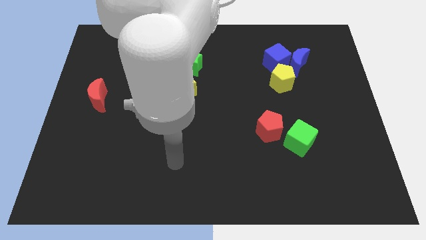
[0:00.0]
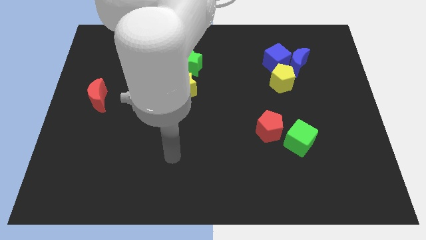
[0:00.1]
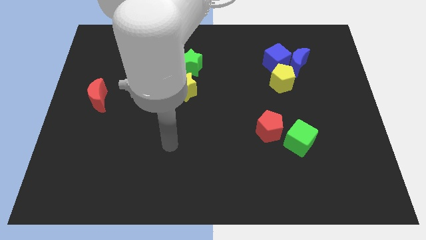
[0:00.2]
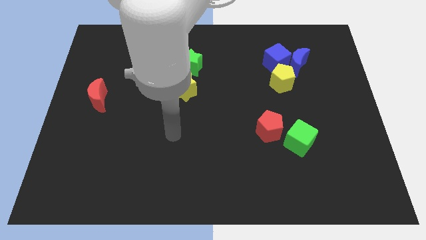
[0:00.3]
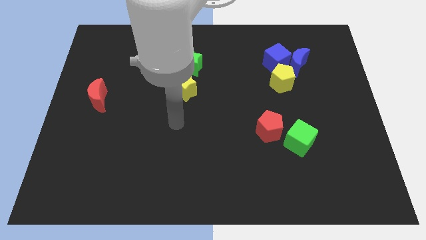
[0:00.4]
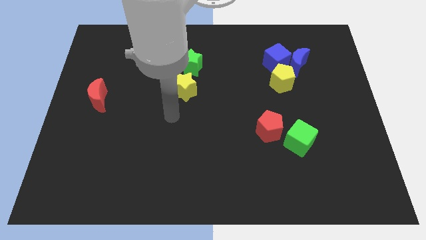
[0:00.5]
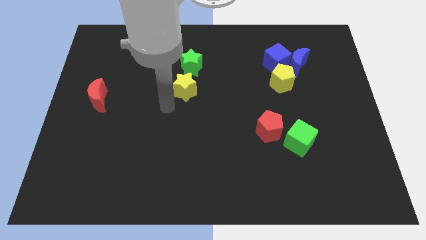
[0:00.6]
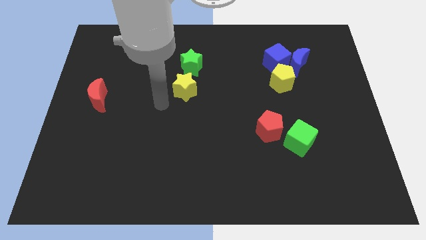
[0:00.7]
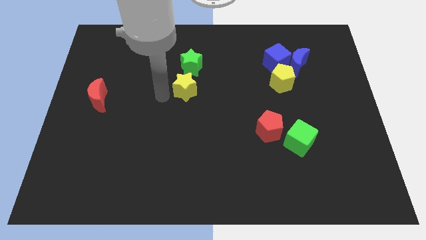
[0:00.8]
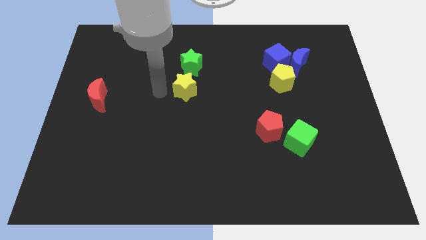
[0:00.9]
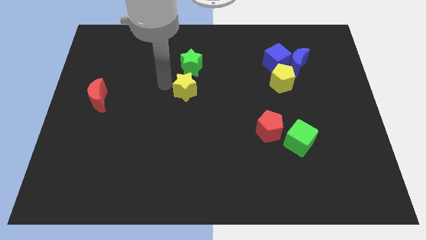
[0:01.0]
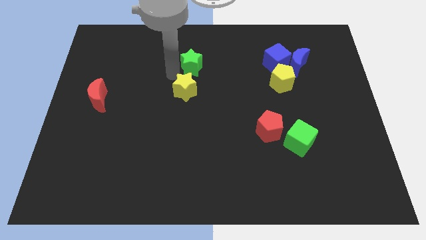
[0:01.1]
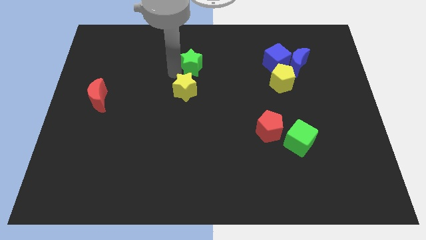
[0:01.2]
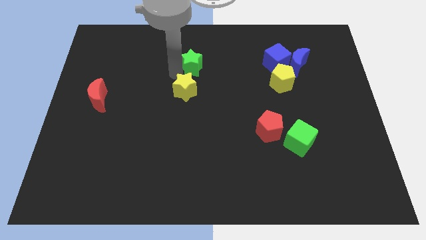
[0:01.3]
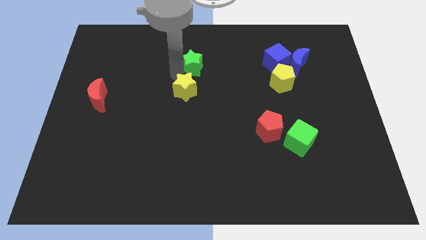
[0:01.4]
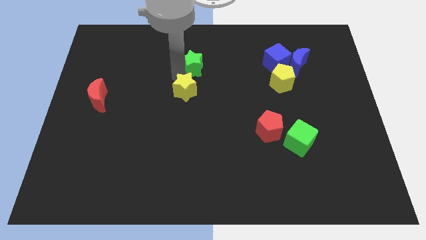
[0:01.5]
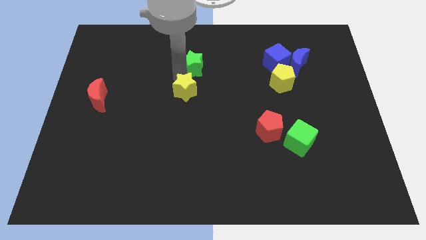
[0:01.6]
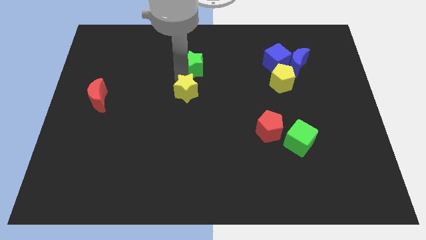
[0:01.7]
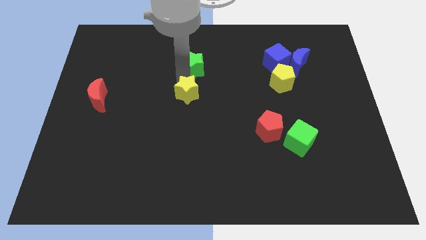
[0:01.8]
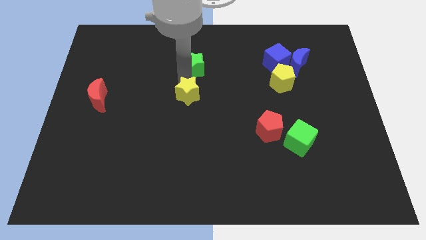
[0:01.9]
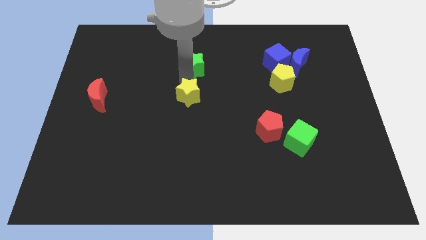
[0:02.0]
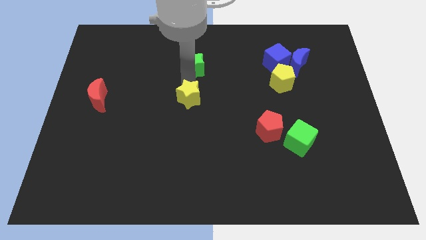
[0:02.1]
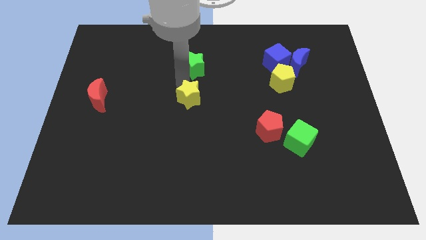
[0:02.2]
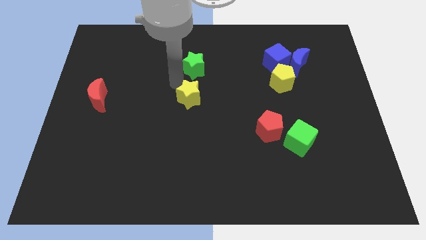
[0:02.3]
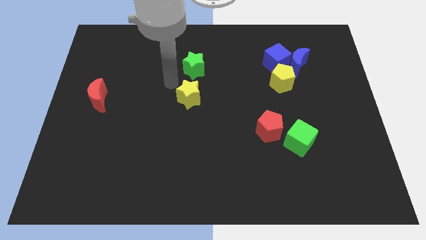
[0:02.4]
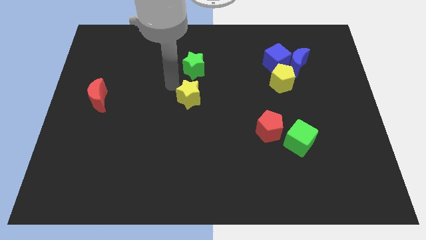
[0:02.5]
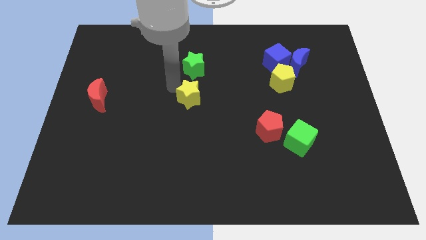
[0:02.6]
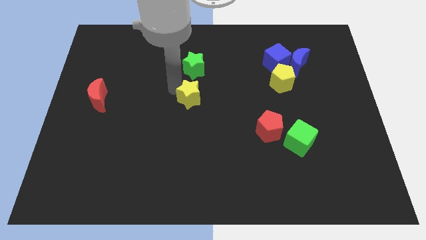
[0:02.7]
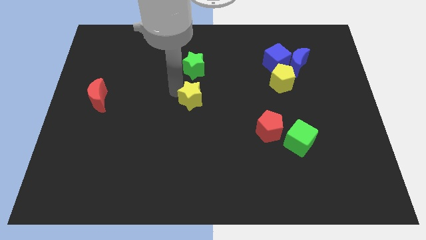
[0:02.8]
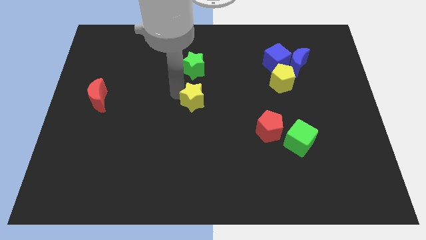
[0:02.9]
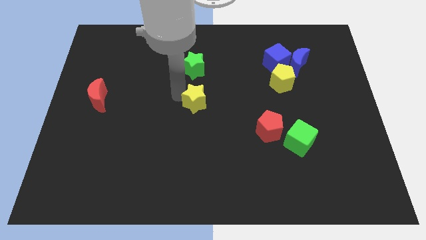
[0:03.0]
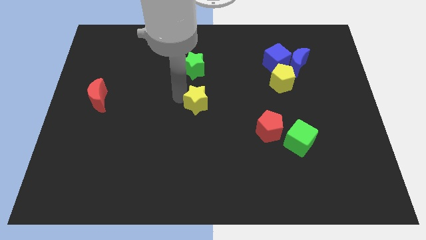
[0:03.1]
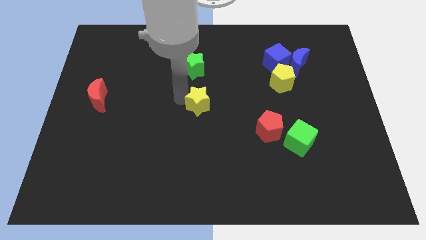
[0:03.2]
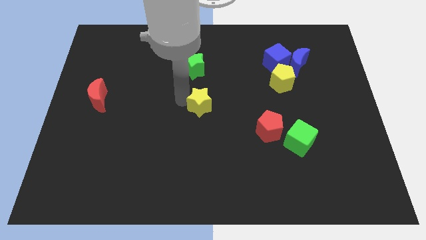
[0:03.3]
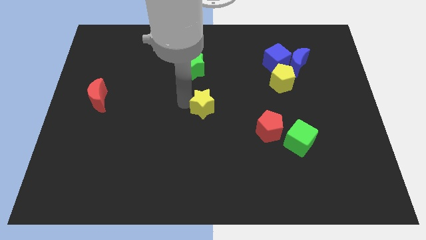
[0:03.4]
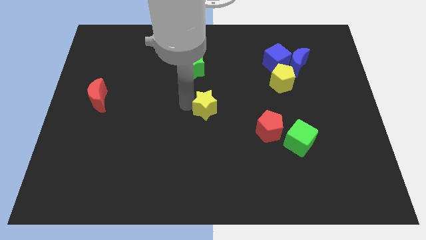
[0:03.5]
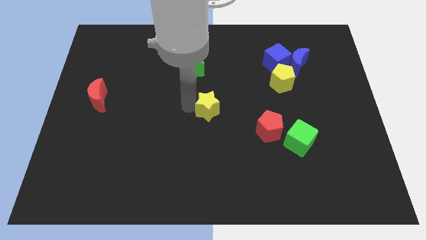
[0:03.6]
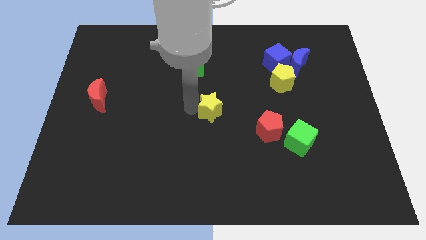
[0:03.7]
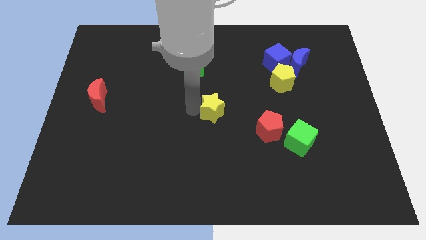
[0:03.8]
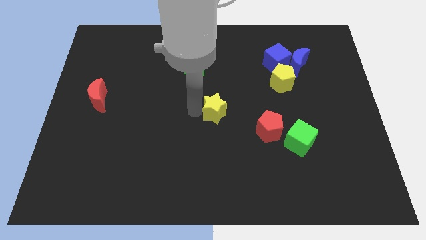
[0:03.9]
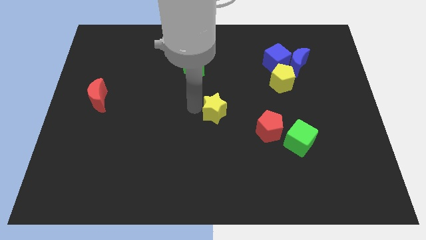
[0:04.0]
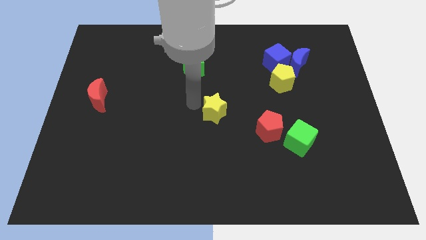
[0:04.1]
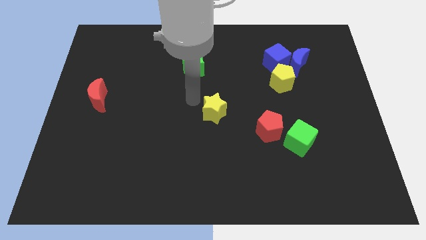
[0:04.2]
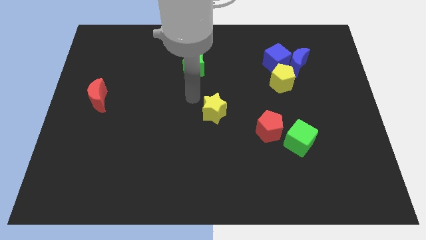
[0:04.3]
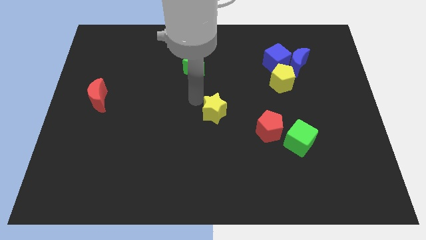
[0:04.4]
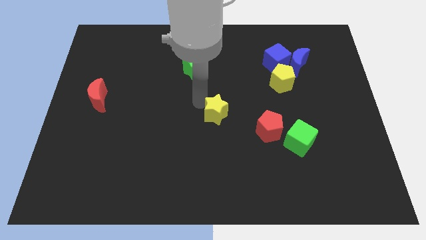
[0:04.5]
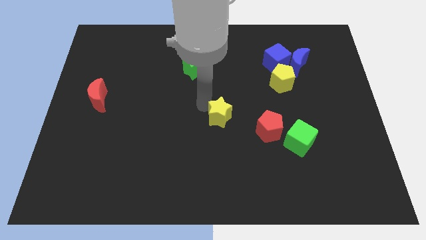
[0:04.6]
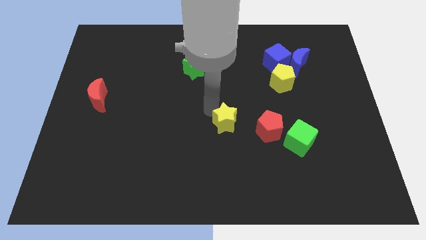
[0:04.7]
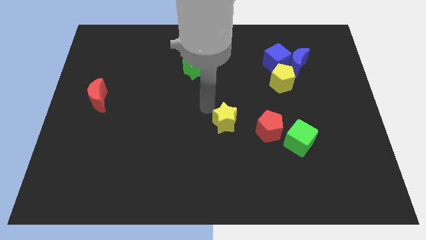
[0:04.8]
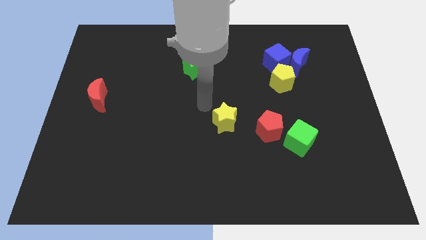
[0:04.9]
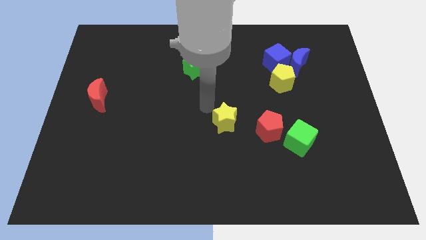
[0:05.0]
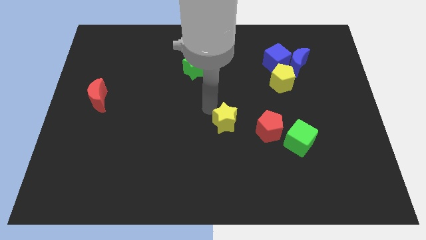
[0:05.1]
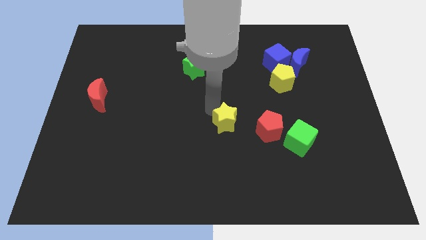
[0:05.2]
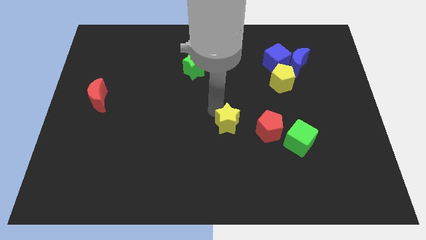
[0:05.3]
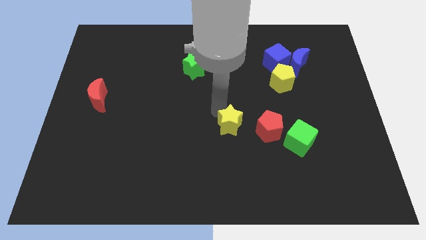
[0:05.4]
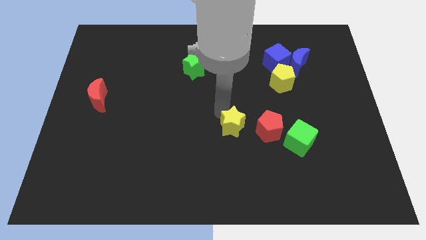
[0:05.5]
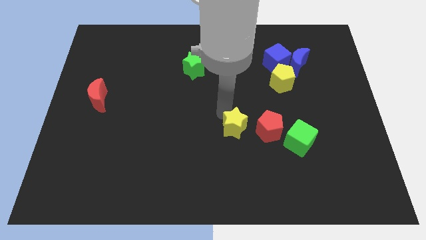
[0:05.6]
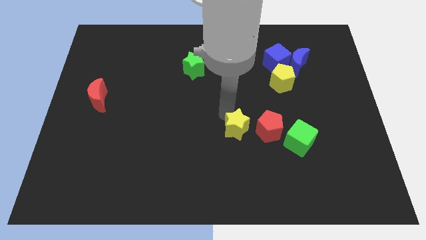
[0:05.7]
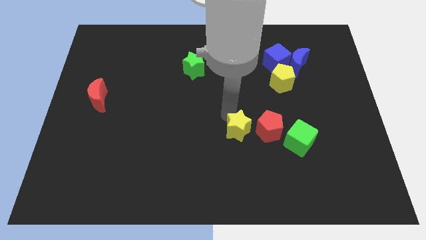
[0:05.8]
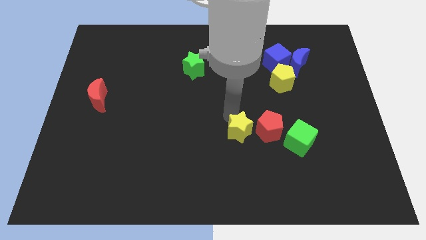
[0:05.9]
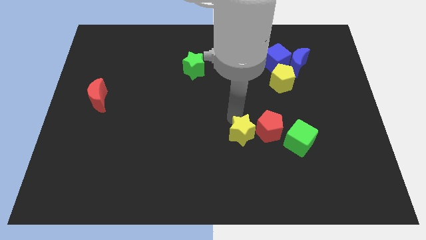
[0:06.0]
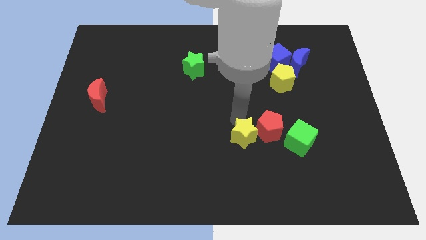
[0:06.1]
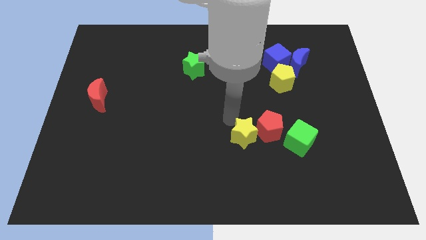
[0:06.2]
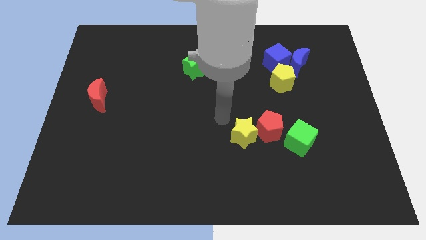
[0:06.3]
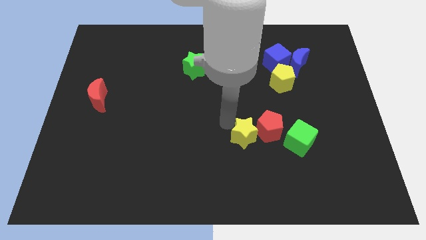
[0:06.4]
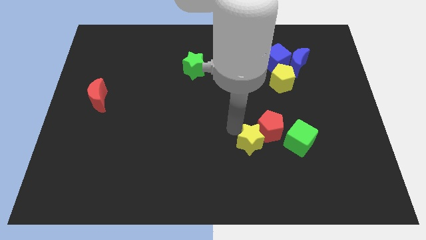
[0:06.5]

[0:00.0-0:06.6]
move the yellow star diagonally downwards and right

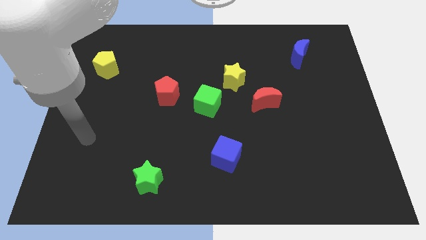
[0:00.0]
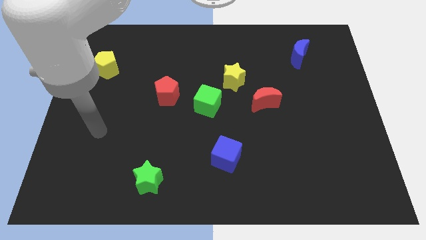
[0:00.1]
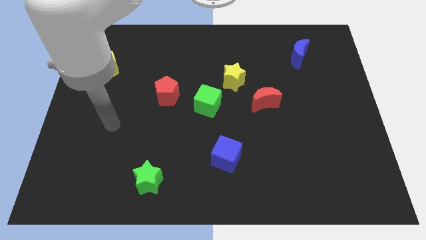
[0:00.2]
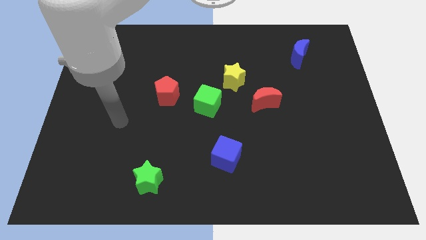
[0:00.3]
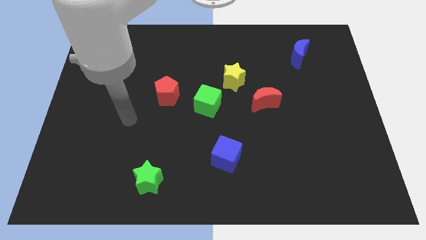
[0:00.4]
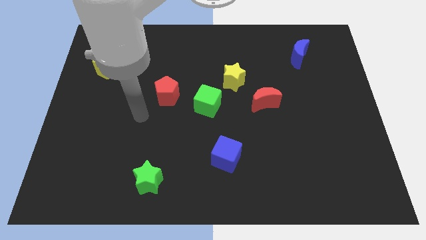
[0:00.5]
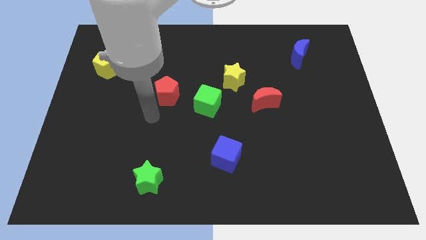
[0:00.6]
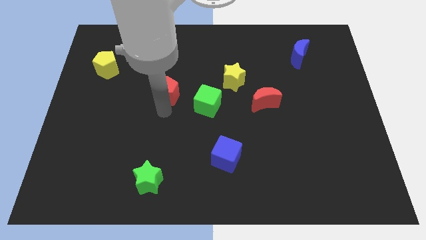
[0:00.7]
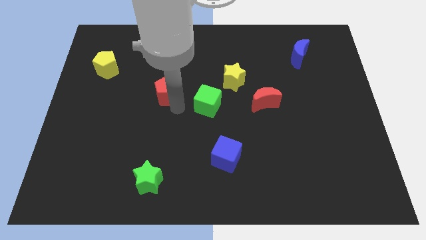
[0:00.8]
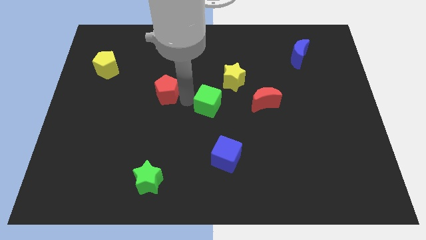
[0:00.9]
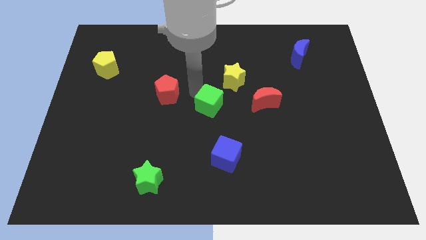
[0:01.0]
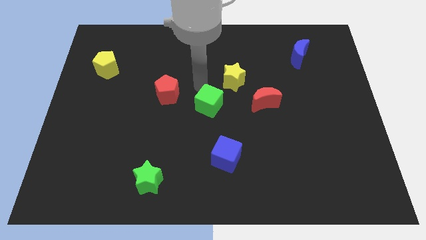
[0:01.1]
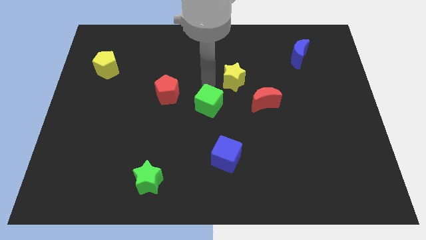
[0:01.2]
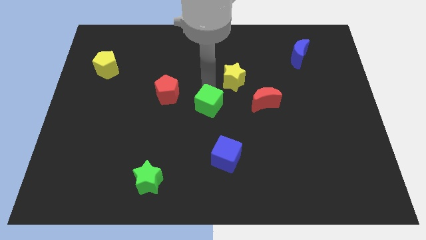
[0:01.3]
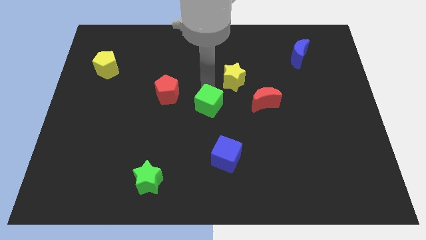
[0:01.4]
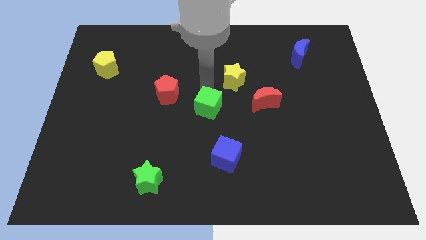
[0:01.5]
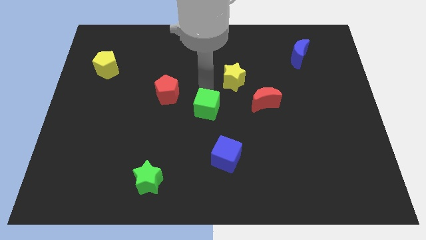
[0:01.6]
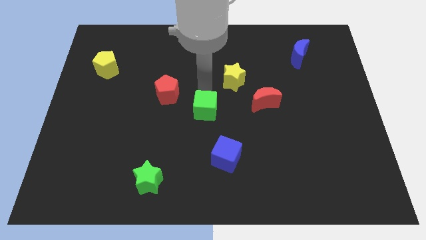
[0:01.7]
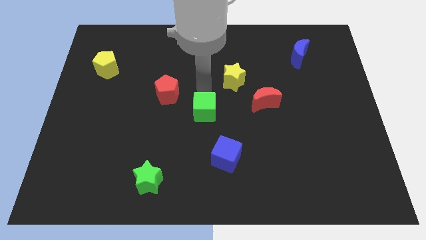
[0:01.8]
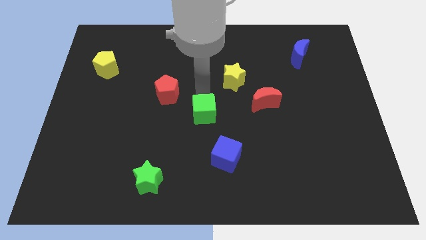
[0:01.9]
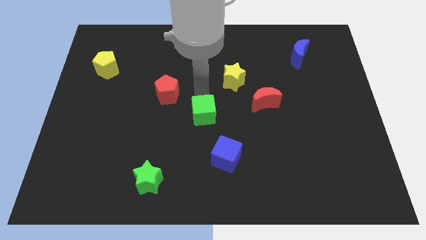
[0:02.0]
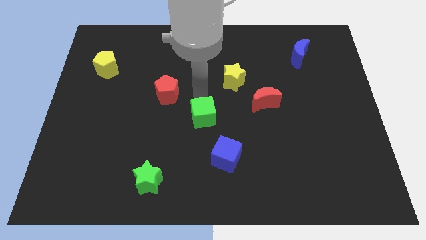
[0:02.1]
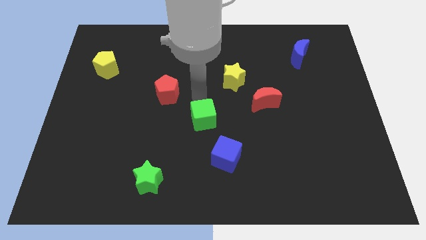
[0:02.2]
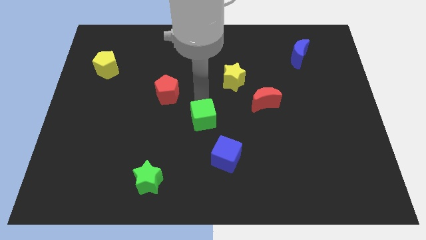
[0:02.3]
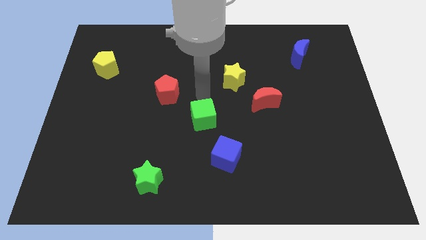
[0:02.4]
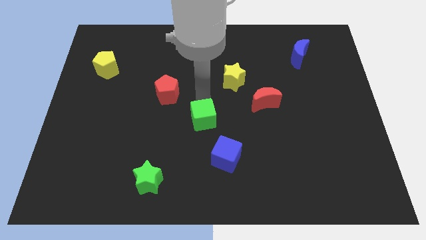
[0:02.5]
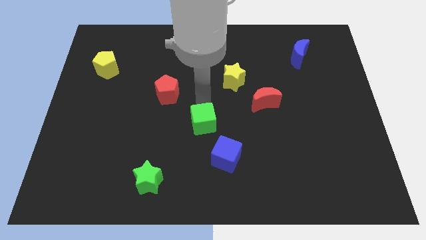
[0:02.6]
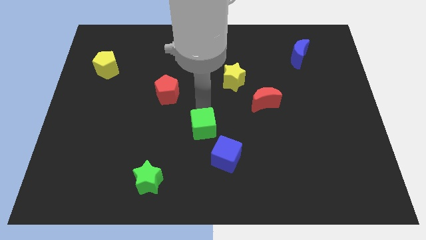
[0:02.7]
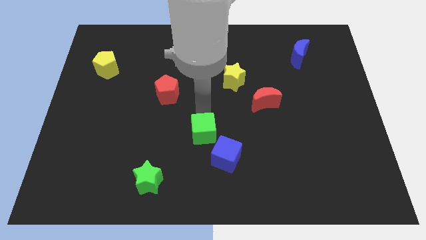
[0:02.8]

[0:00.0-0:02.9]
push the green cube a little down
